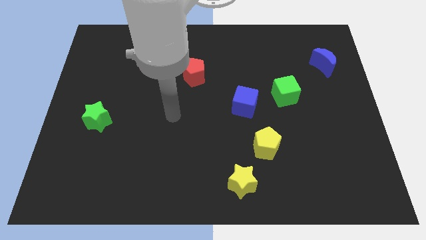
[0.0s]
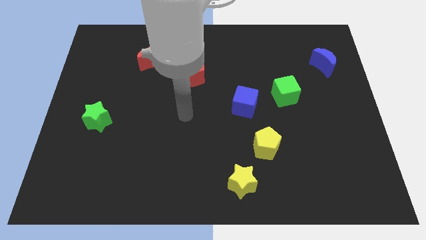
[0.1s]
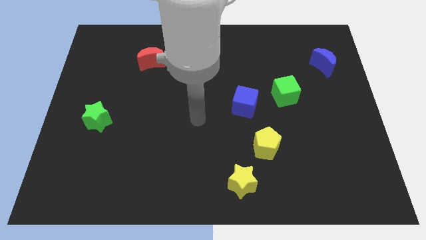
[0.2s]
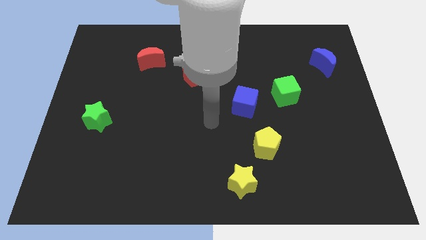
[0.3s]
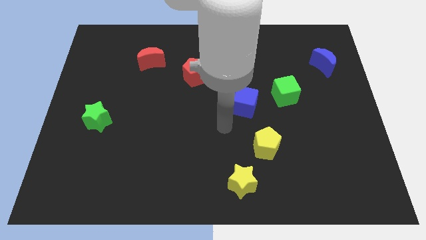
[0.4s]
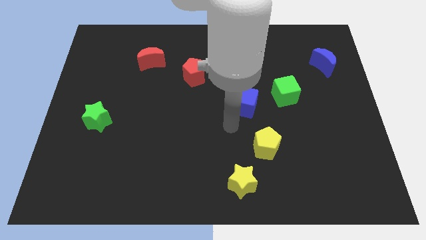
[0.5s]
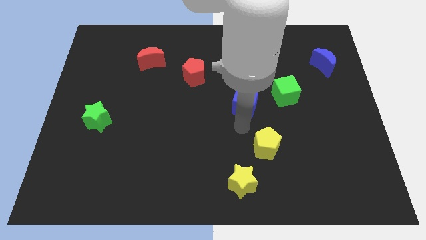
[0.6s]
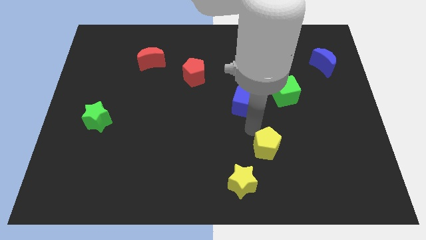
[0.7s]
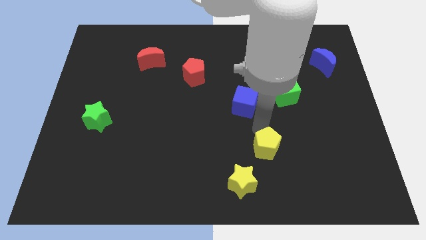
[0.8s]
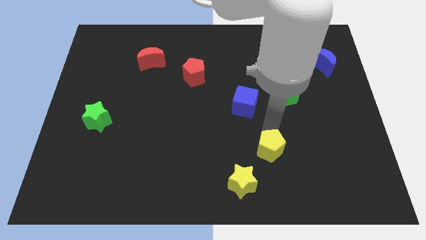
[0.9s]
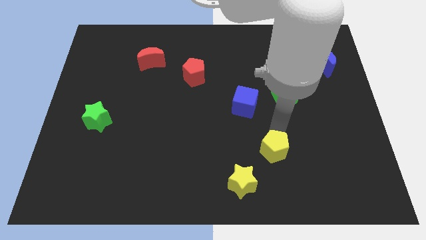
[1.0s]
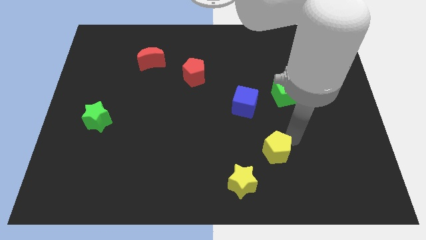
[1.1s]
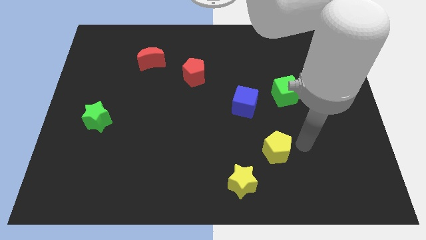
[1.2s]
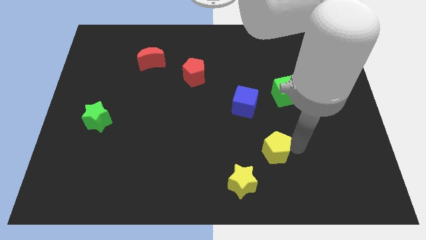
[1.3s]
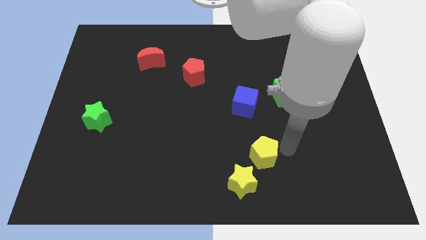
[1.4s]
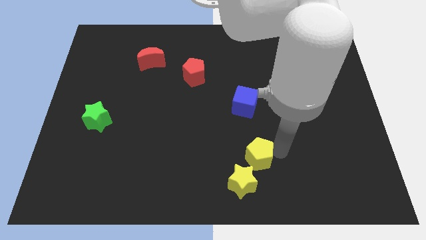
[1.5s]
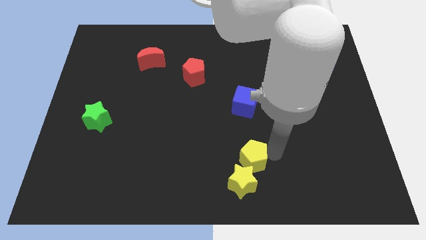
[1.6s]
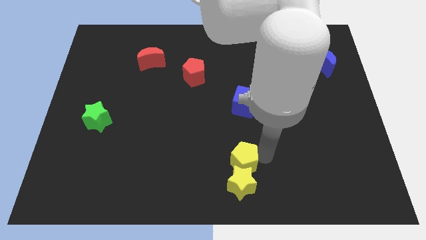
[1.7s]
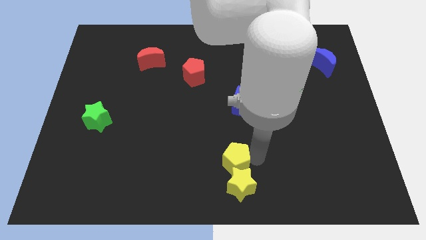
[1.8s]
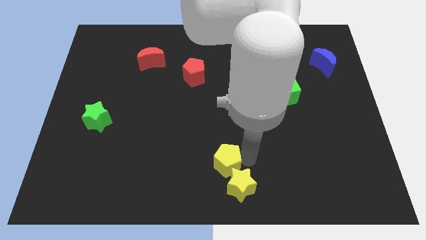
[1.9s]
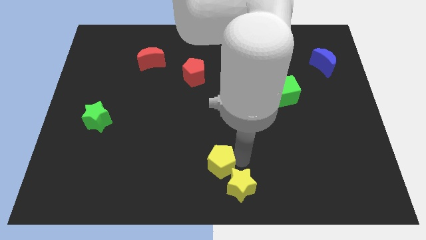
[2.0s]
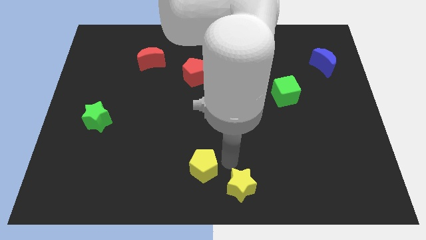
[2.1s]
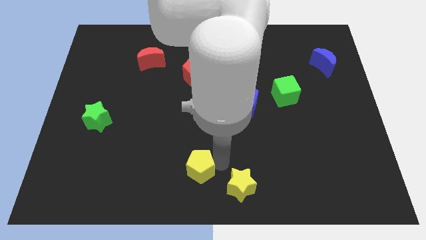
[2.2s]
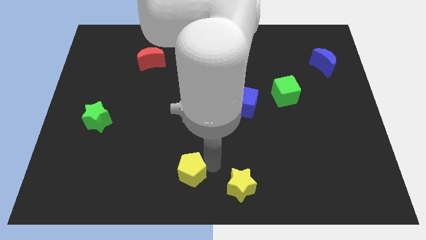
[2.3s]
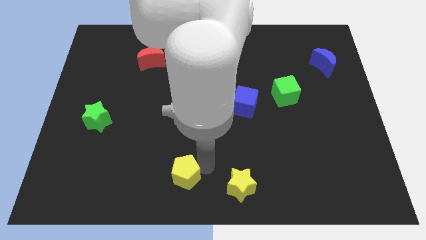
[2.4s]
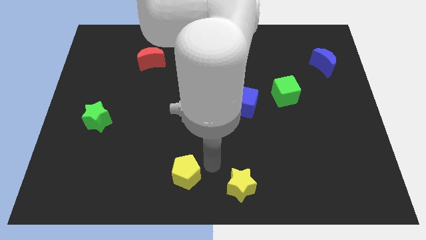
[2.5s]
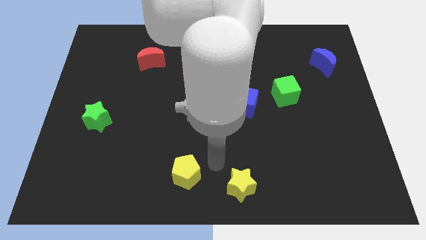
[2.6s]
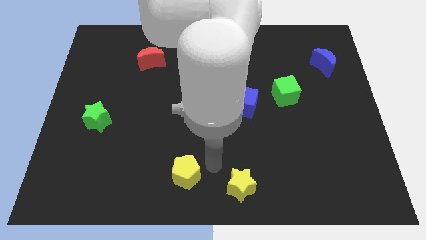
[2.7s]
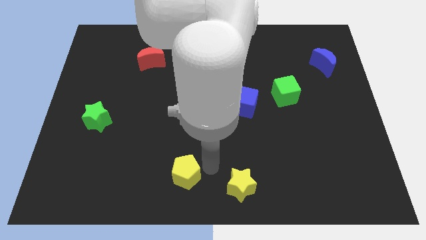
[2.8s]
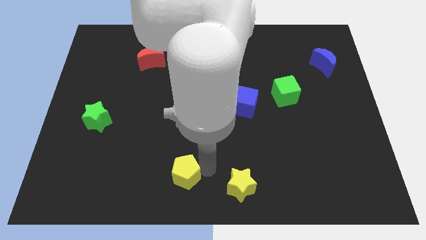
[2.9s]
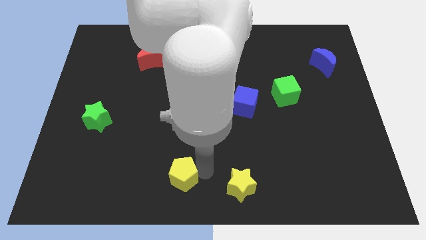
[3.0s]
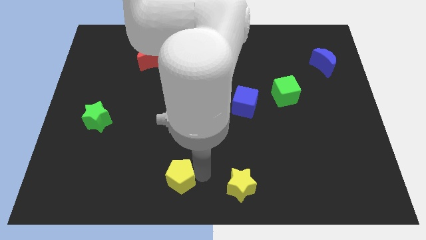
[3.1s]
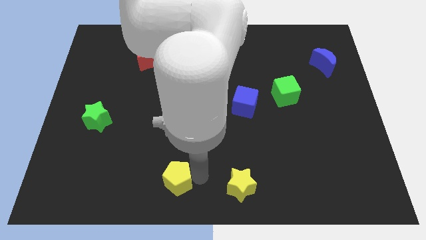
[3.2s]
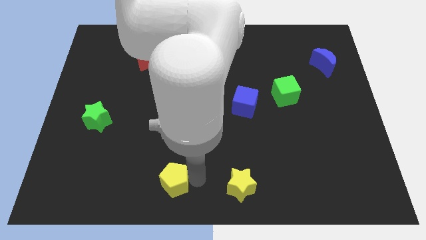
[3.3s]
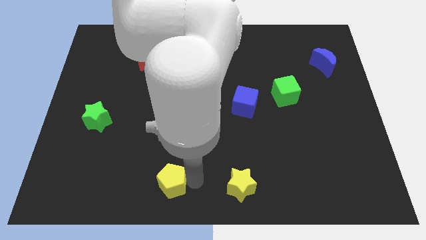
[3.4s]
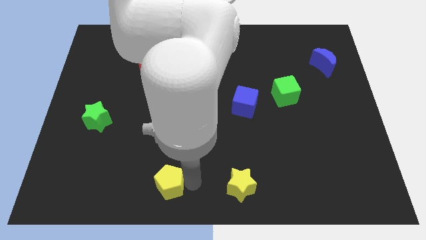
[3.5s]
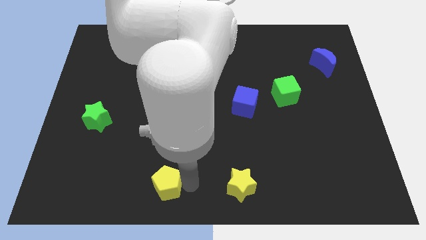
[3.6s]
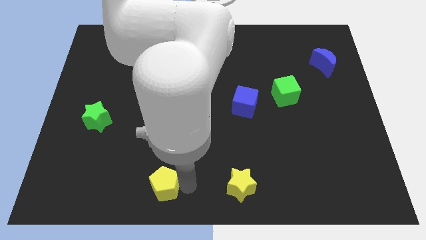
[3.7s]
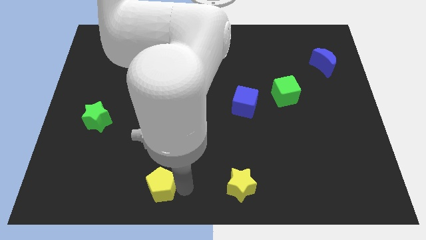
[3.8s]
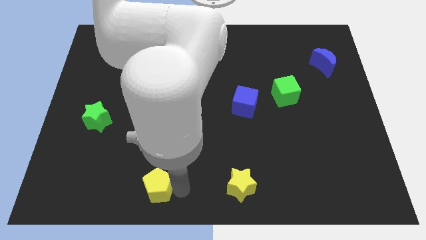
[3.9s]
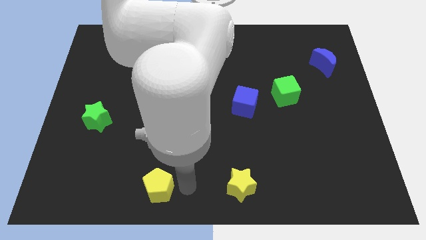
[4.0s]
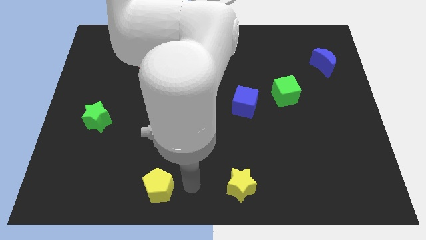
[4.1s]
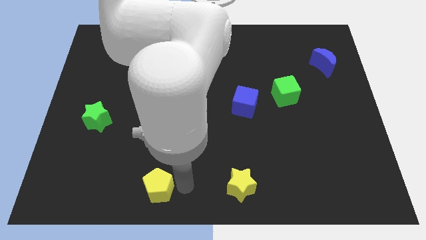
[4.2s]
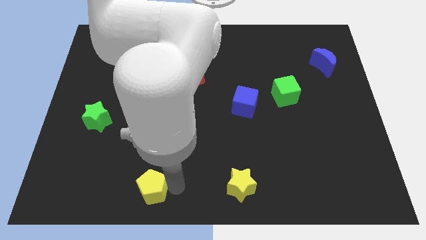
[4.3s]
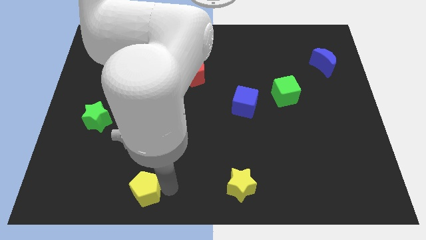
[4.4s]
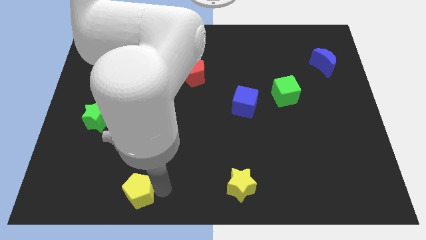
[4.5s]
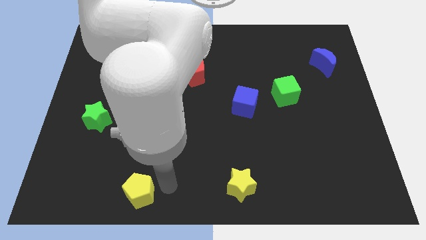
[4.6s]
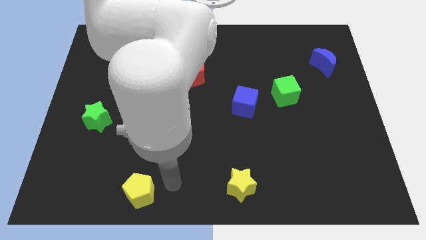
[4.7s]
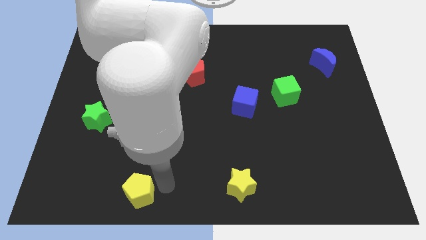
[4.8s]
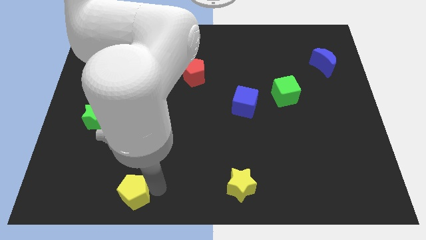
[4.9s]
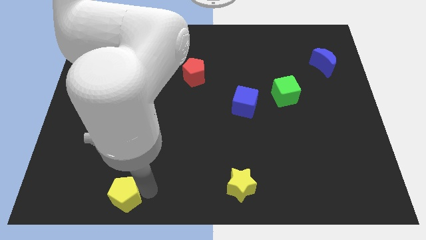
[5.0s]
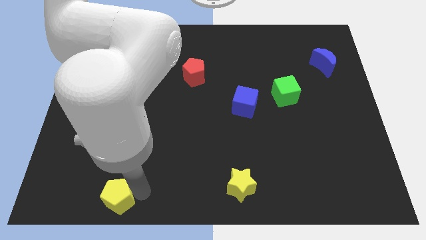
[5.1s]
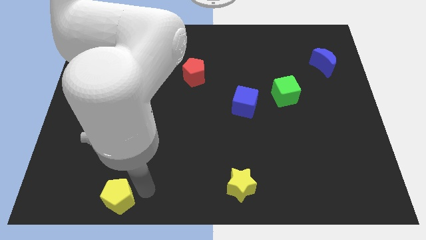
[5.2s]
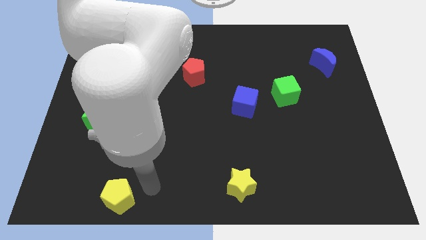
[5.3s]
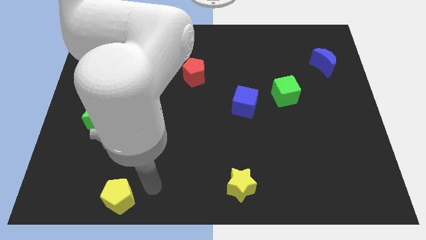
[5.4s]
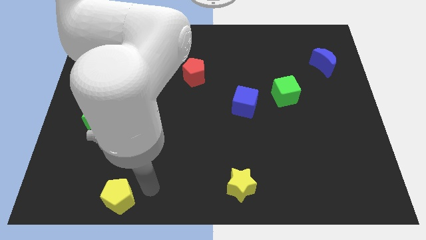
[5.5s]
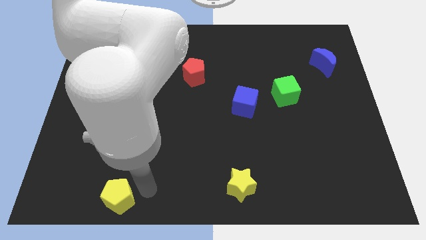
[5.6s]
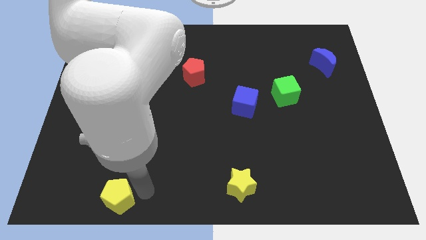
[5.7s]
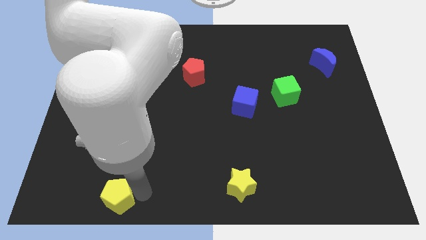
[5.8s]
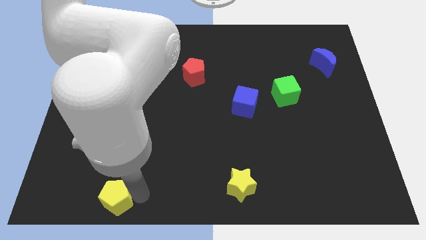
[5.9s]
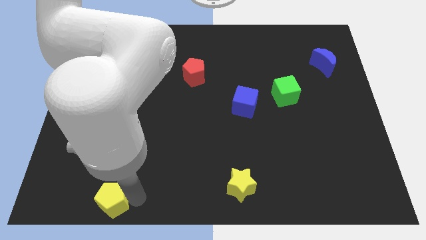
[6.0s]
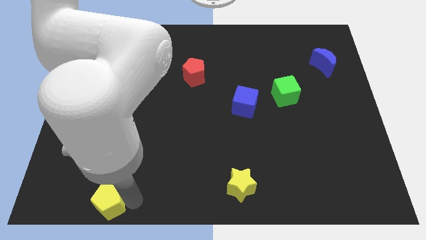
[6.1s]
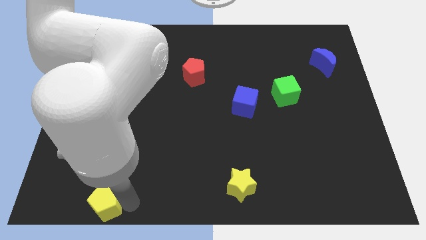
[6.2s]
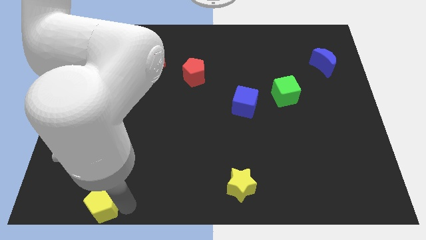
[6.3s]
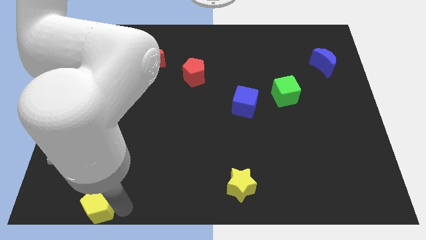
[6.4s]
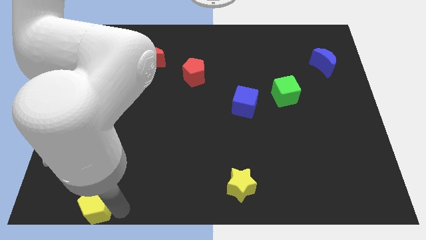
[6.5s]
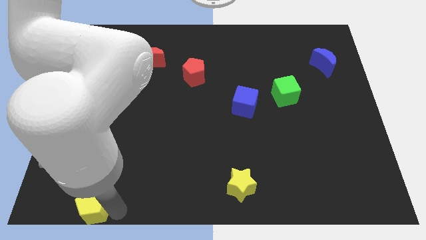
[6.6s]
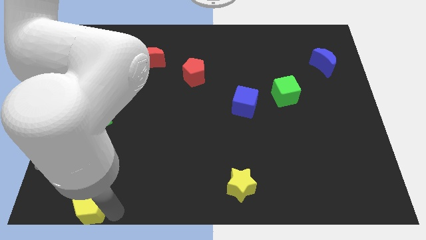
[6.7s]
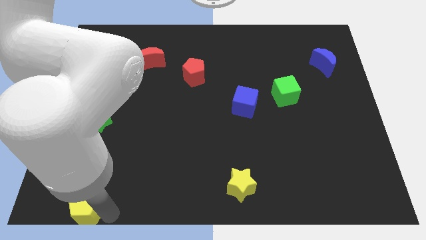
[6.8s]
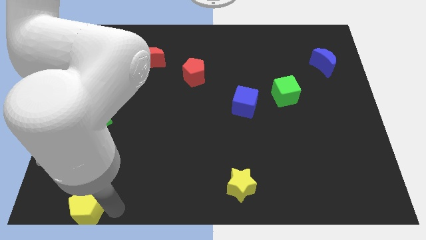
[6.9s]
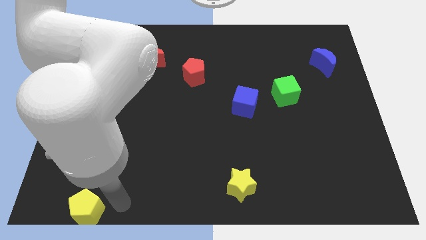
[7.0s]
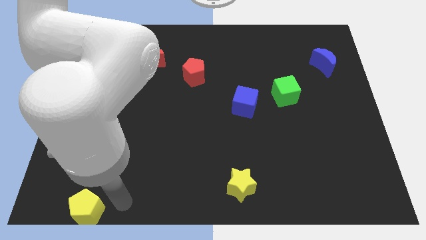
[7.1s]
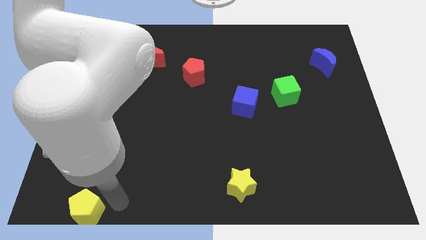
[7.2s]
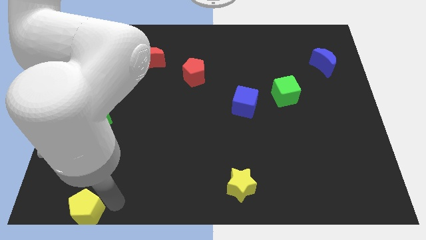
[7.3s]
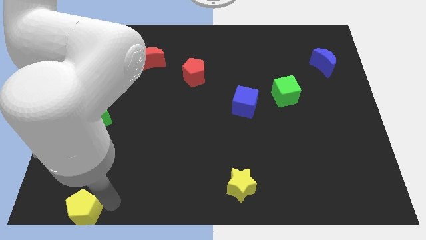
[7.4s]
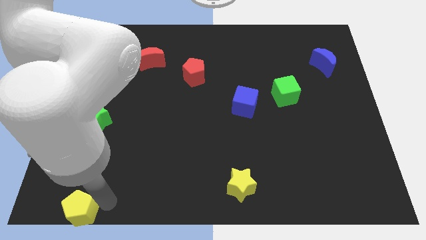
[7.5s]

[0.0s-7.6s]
move the yellow pentagon to the bottom left corner
